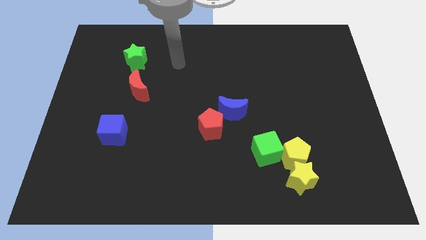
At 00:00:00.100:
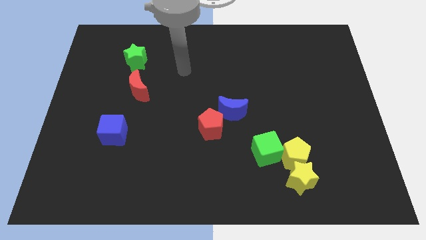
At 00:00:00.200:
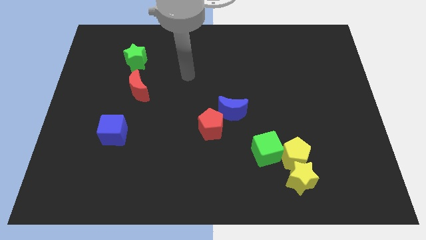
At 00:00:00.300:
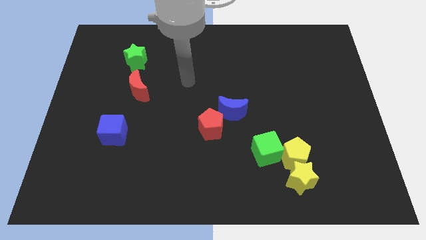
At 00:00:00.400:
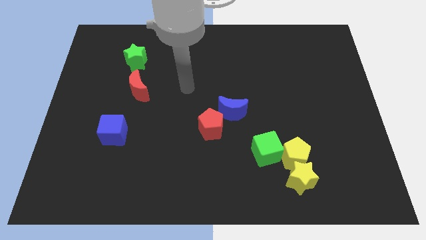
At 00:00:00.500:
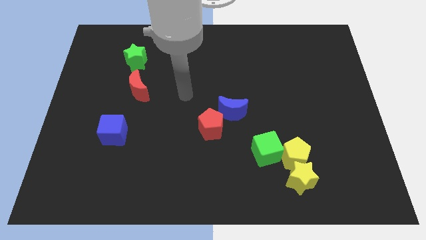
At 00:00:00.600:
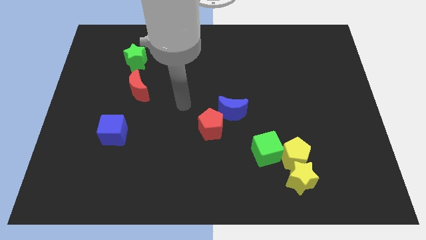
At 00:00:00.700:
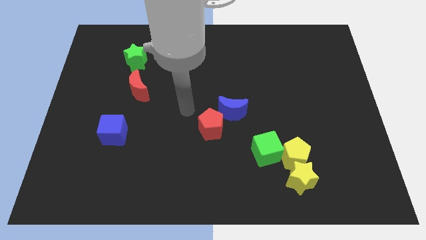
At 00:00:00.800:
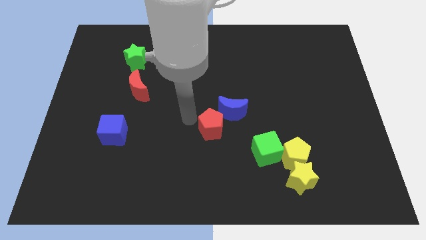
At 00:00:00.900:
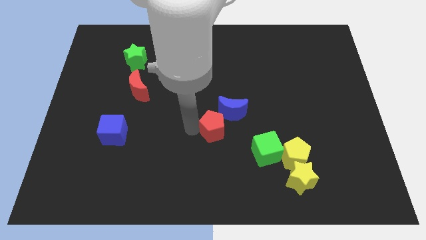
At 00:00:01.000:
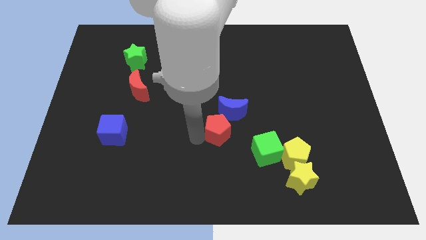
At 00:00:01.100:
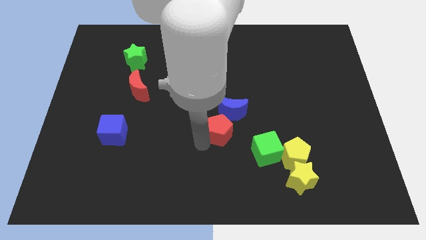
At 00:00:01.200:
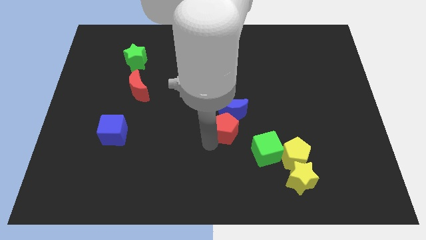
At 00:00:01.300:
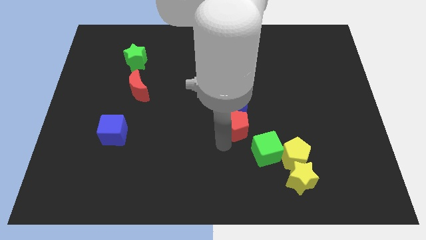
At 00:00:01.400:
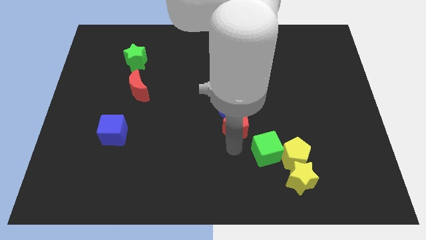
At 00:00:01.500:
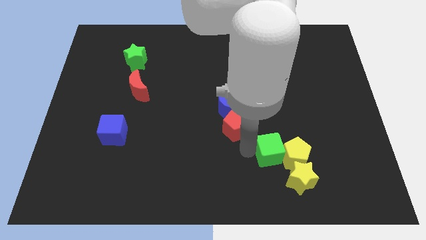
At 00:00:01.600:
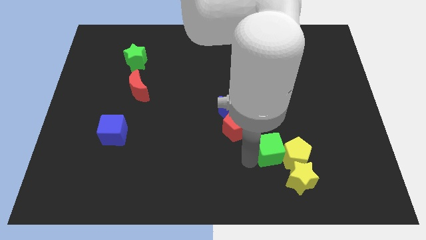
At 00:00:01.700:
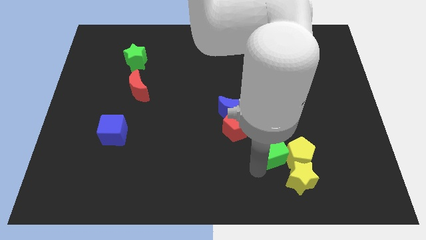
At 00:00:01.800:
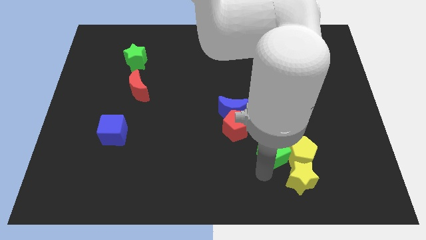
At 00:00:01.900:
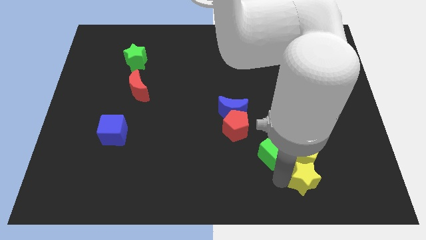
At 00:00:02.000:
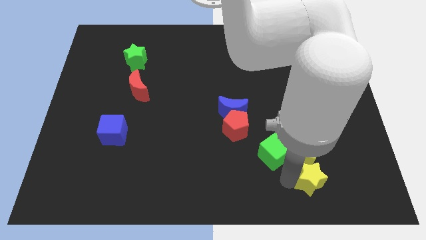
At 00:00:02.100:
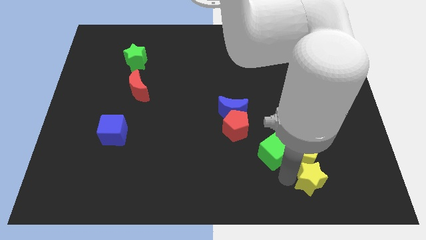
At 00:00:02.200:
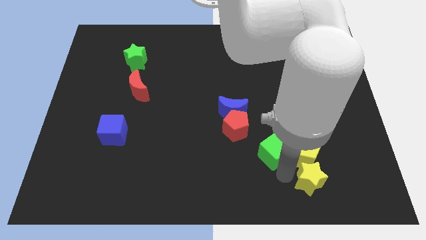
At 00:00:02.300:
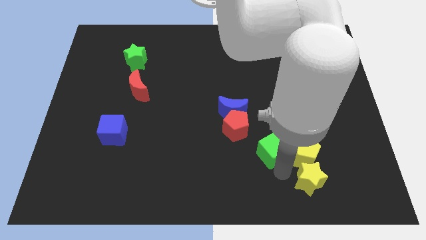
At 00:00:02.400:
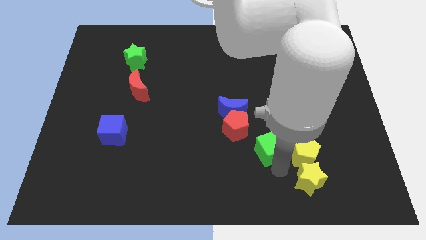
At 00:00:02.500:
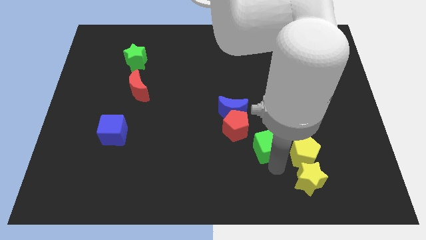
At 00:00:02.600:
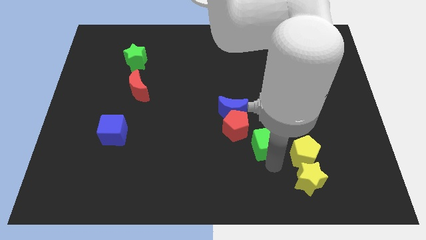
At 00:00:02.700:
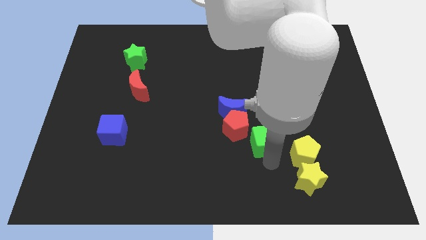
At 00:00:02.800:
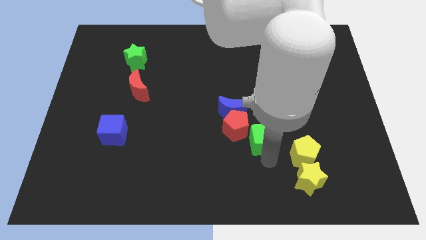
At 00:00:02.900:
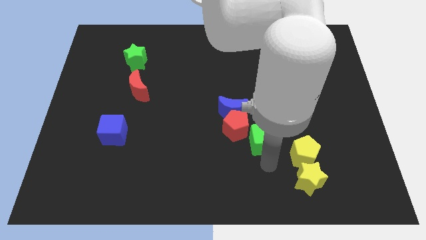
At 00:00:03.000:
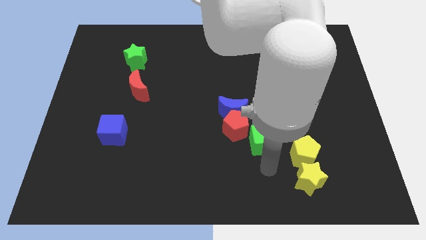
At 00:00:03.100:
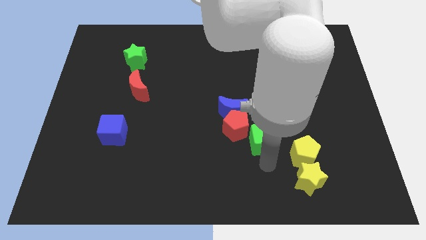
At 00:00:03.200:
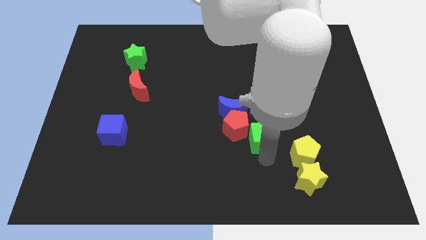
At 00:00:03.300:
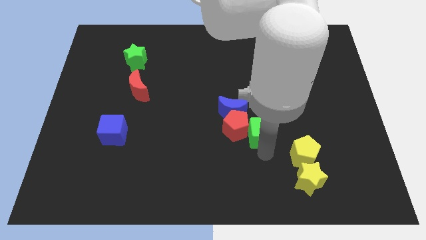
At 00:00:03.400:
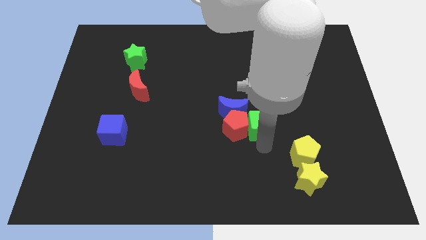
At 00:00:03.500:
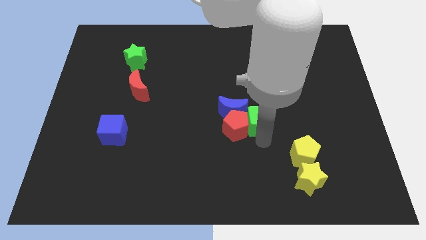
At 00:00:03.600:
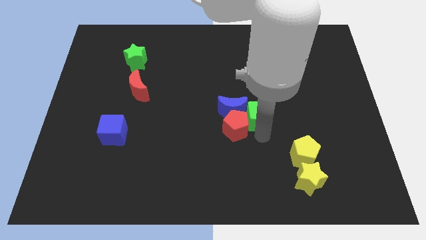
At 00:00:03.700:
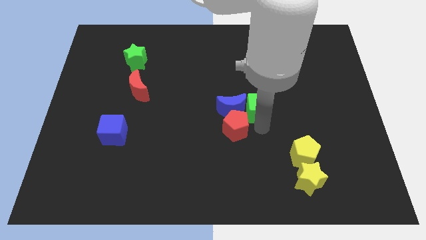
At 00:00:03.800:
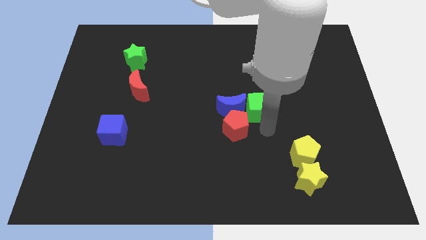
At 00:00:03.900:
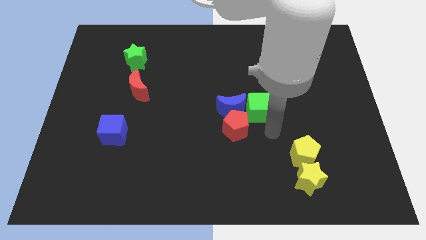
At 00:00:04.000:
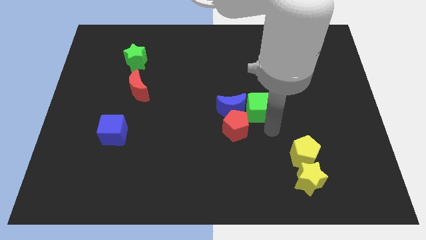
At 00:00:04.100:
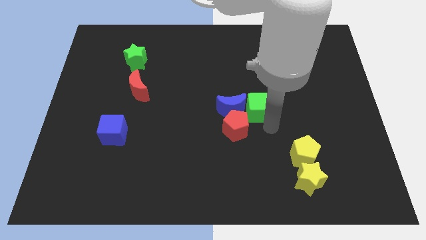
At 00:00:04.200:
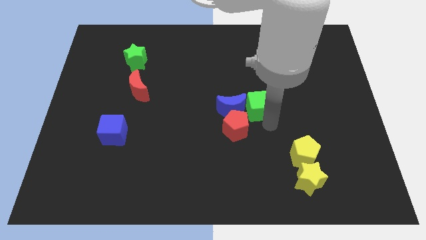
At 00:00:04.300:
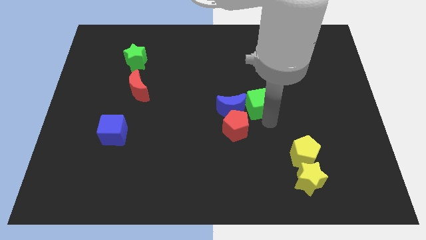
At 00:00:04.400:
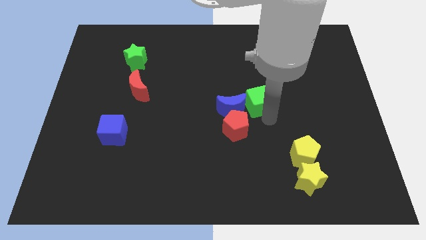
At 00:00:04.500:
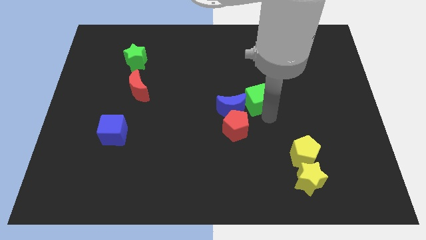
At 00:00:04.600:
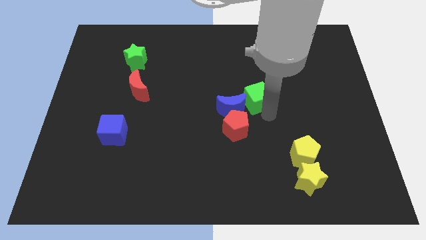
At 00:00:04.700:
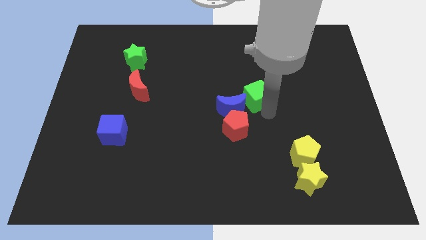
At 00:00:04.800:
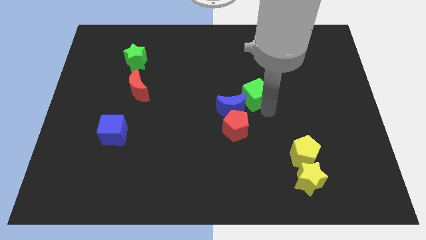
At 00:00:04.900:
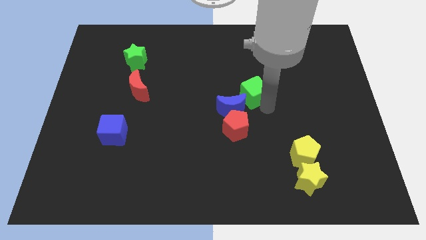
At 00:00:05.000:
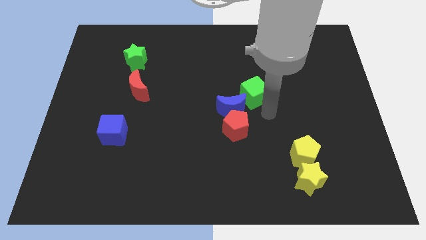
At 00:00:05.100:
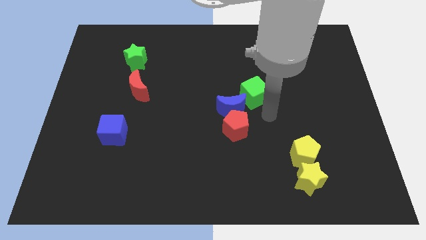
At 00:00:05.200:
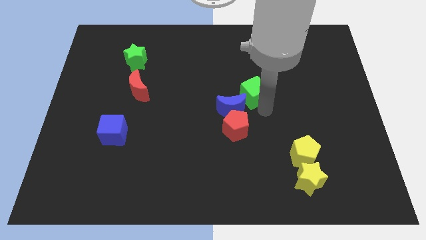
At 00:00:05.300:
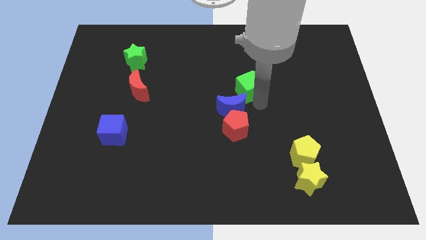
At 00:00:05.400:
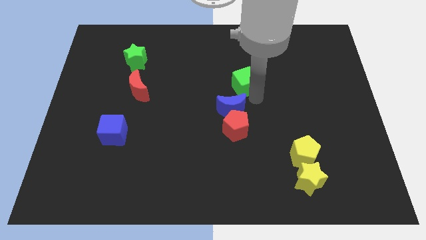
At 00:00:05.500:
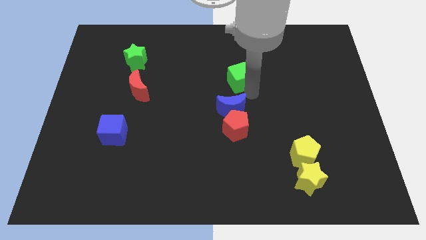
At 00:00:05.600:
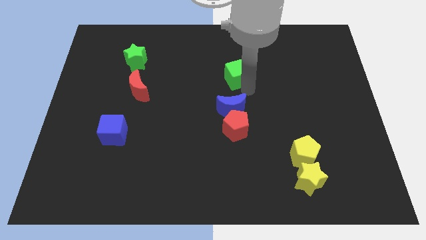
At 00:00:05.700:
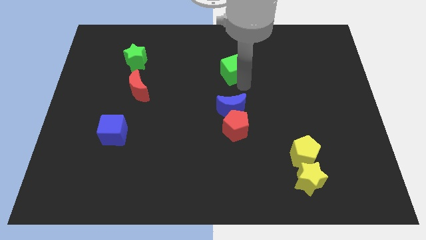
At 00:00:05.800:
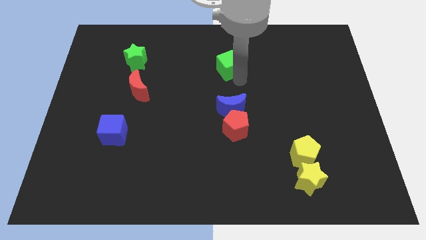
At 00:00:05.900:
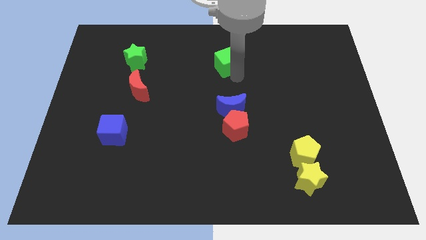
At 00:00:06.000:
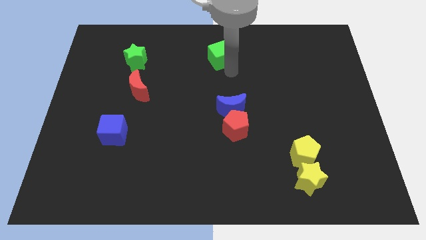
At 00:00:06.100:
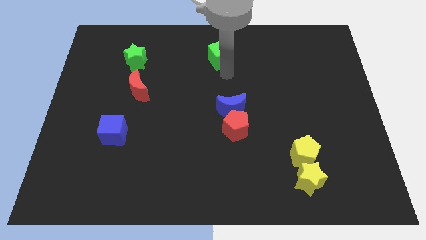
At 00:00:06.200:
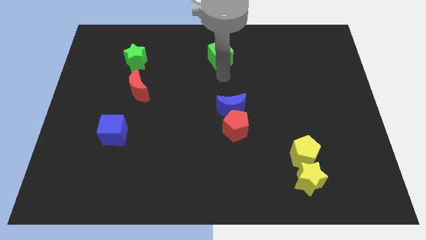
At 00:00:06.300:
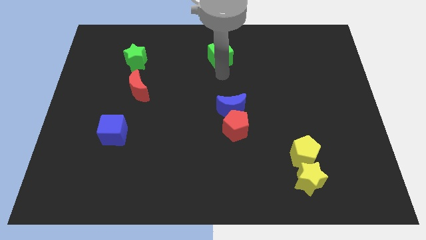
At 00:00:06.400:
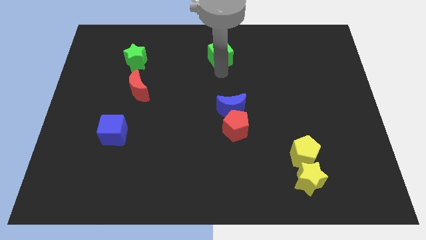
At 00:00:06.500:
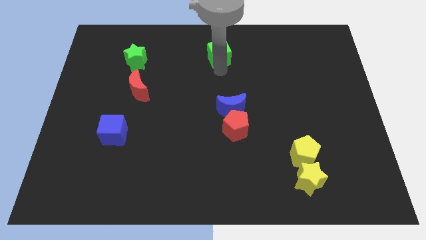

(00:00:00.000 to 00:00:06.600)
put the green cube to the top
